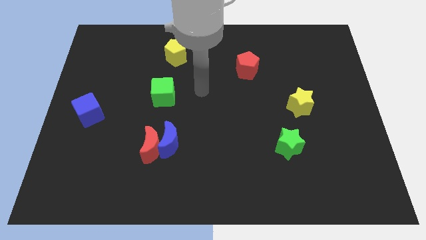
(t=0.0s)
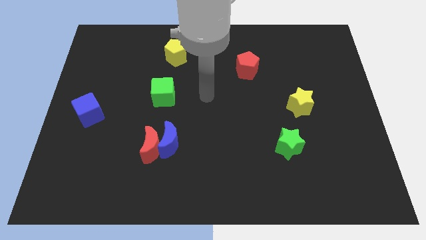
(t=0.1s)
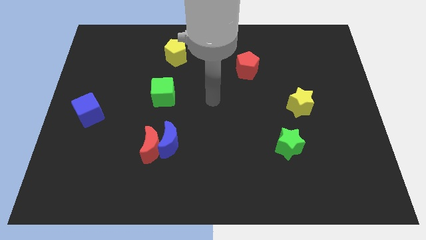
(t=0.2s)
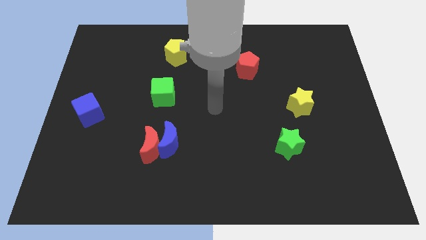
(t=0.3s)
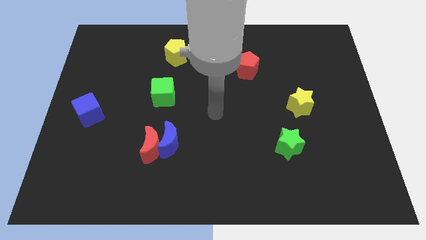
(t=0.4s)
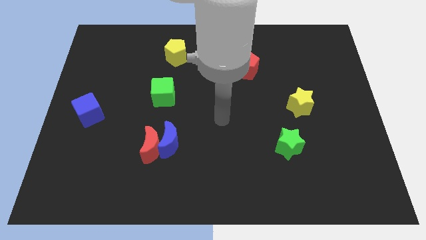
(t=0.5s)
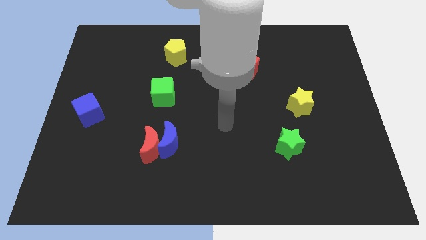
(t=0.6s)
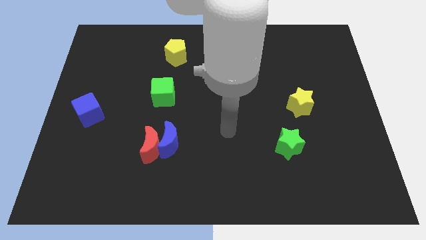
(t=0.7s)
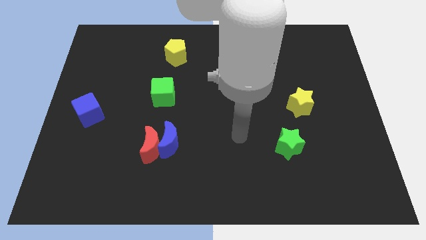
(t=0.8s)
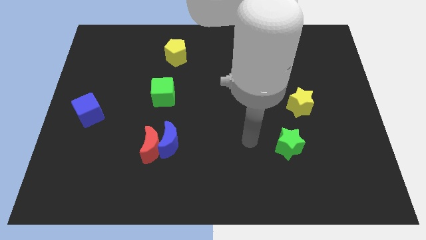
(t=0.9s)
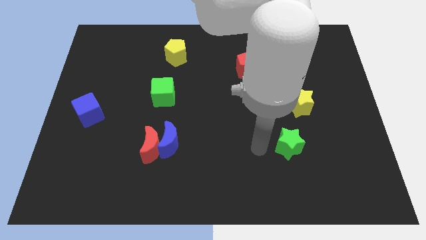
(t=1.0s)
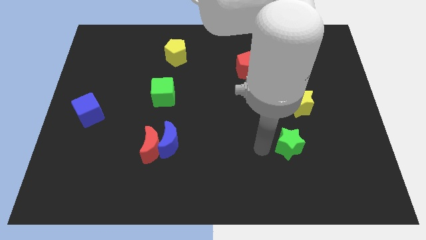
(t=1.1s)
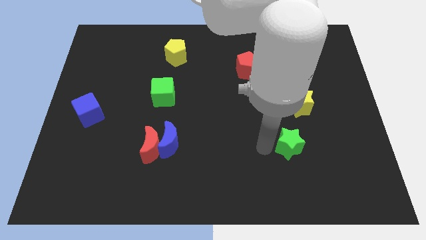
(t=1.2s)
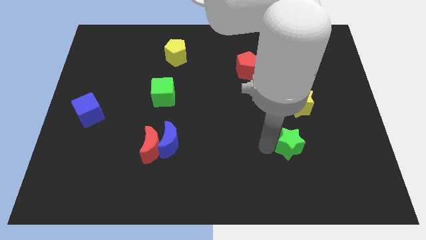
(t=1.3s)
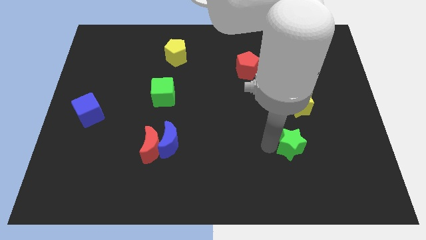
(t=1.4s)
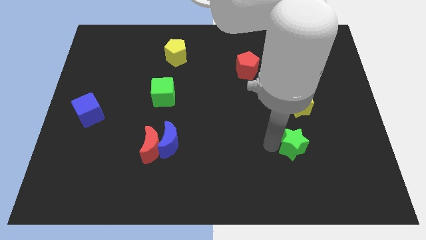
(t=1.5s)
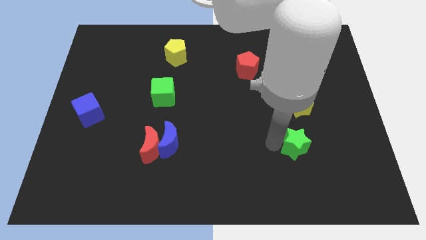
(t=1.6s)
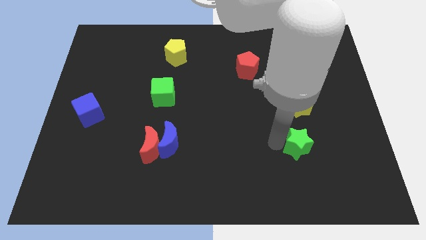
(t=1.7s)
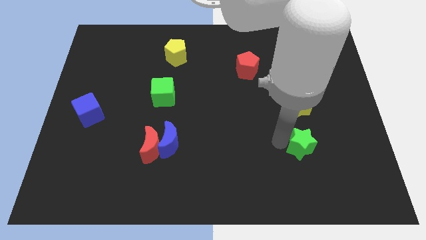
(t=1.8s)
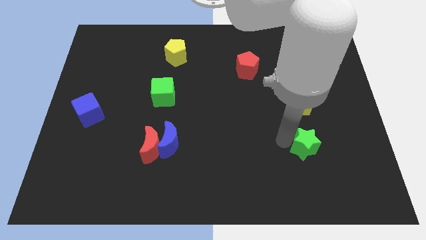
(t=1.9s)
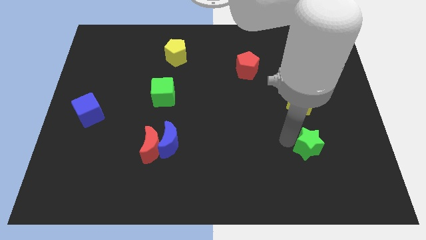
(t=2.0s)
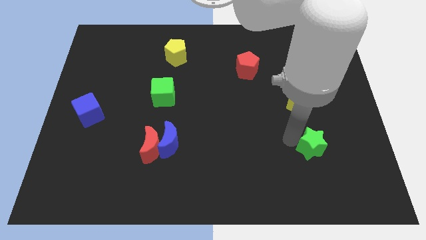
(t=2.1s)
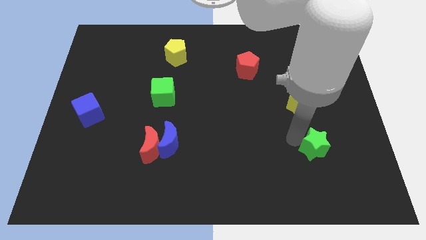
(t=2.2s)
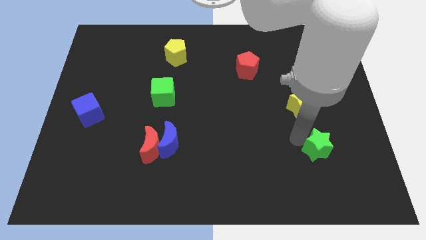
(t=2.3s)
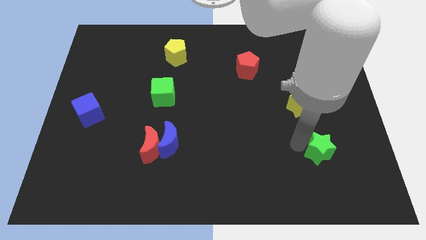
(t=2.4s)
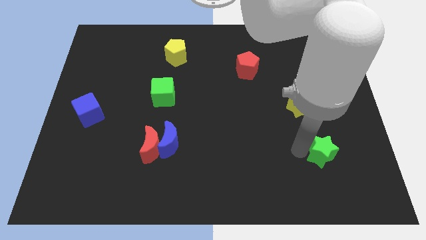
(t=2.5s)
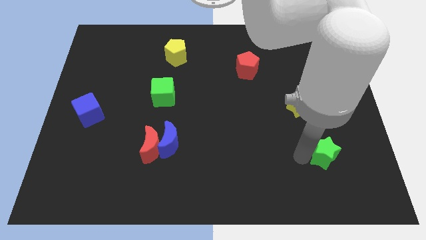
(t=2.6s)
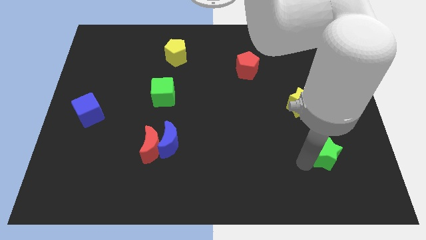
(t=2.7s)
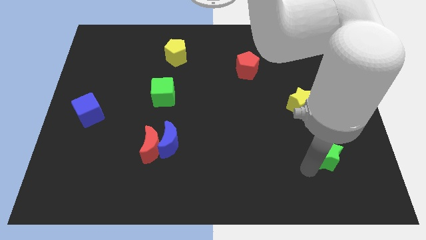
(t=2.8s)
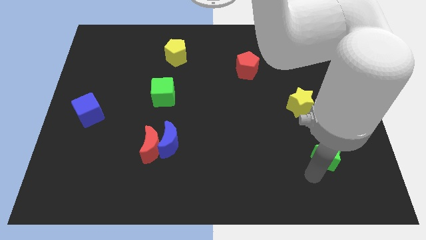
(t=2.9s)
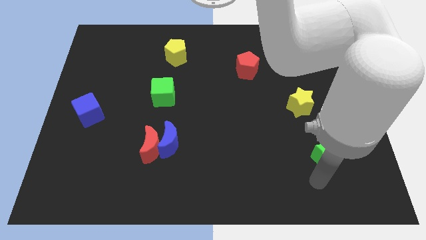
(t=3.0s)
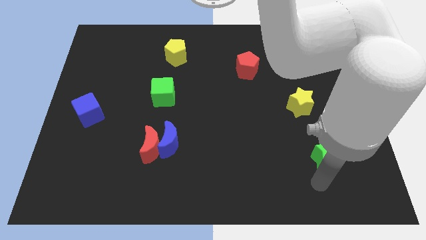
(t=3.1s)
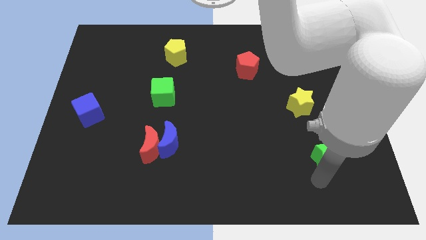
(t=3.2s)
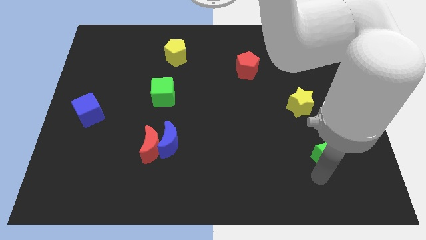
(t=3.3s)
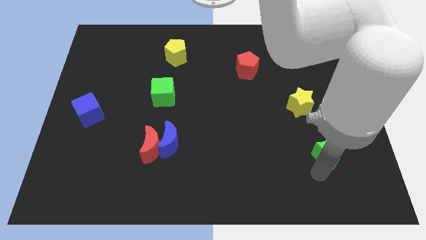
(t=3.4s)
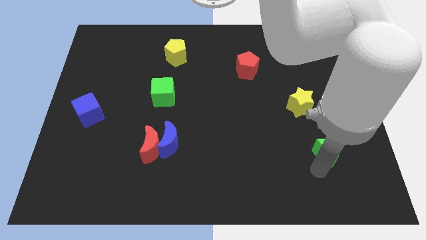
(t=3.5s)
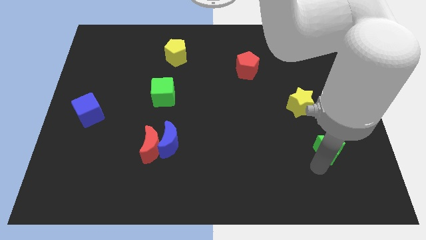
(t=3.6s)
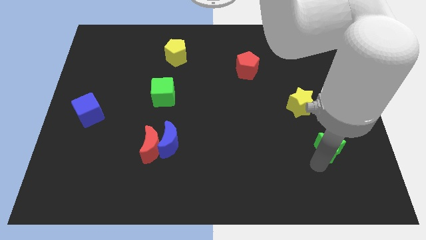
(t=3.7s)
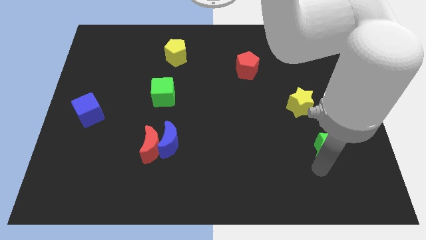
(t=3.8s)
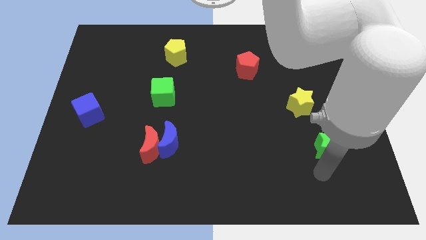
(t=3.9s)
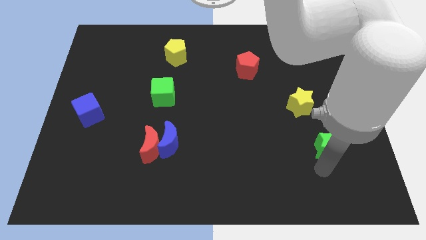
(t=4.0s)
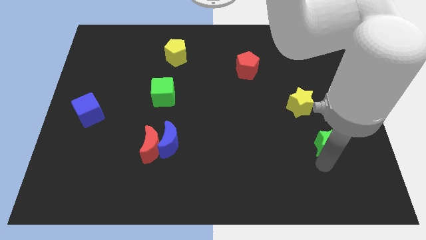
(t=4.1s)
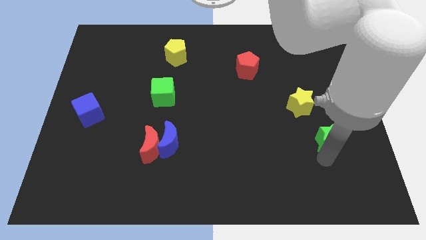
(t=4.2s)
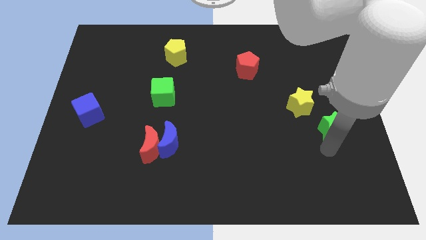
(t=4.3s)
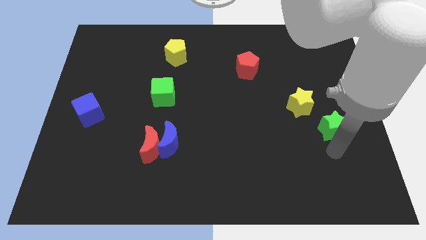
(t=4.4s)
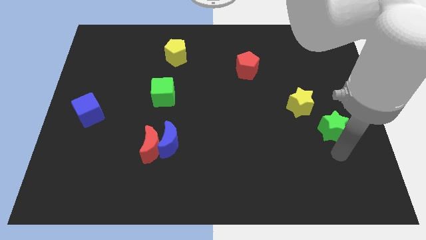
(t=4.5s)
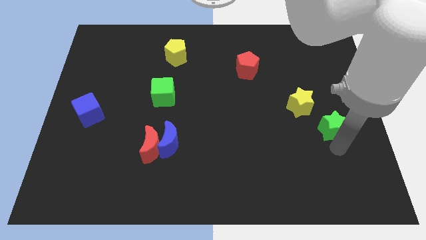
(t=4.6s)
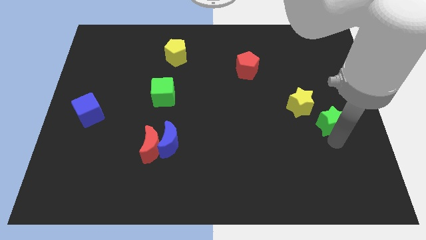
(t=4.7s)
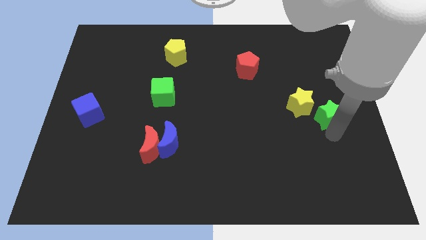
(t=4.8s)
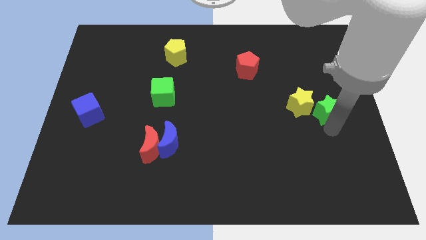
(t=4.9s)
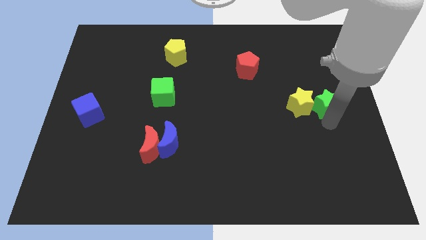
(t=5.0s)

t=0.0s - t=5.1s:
slide the green star to the top right side of the yellow star

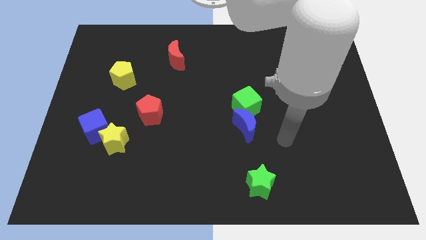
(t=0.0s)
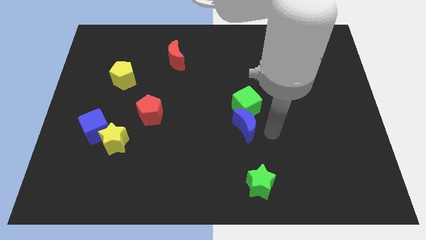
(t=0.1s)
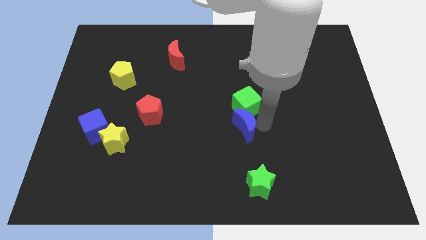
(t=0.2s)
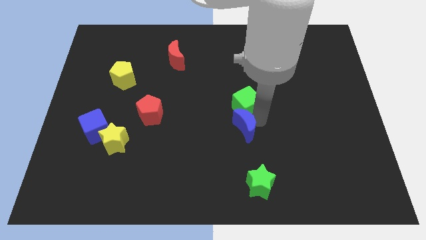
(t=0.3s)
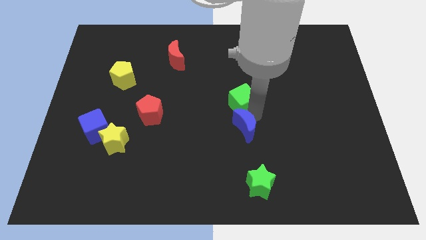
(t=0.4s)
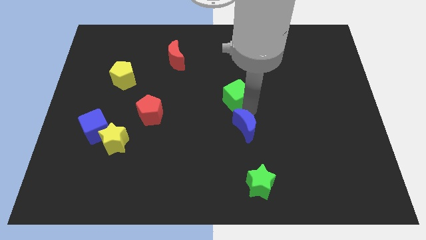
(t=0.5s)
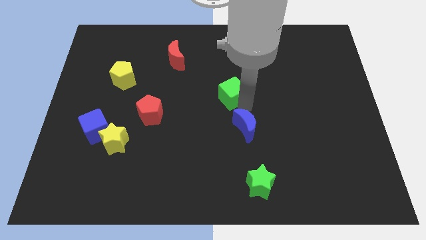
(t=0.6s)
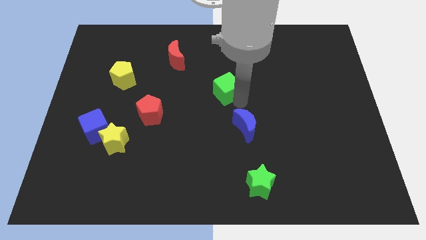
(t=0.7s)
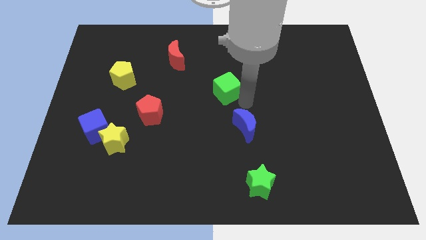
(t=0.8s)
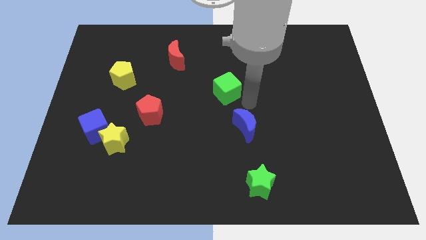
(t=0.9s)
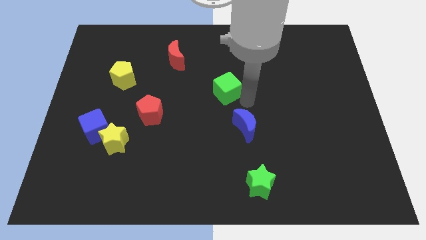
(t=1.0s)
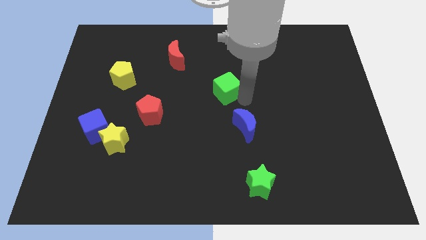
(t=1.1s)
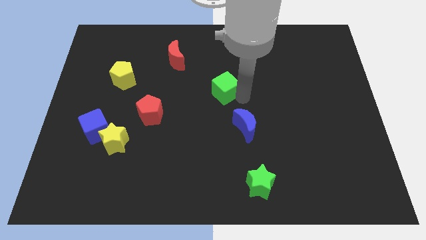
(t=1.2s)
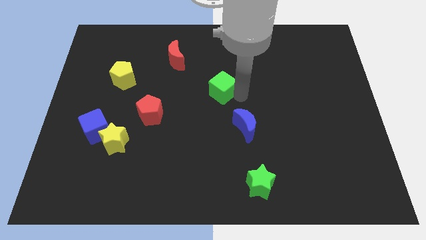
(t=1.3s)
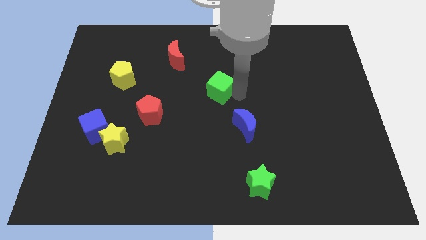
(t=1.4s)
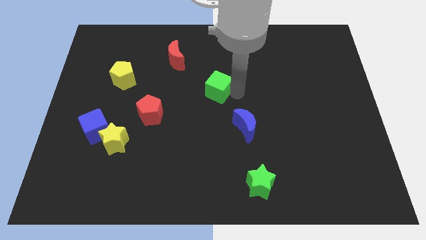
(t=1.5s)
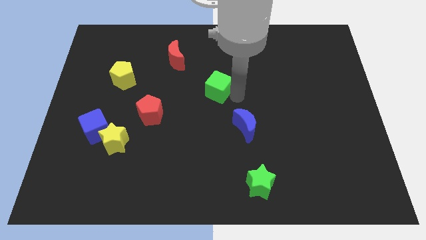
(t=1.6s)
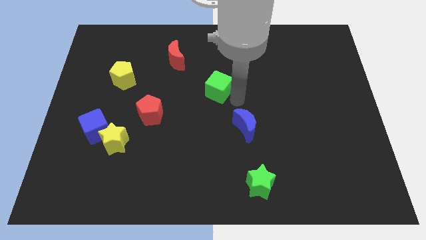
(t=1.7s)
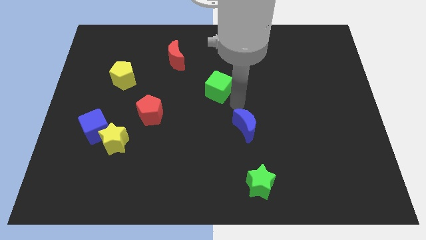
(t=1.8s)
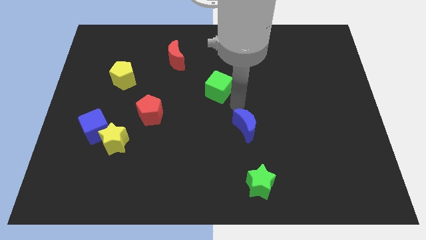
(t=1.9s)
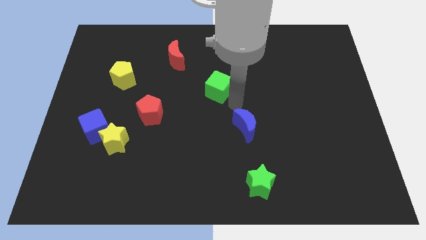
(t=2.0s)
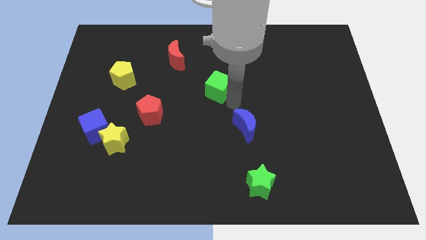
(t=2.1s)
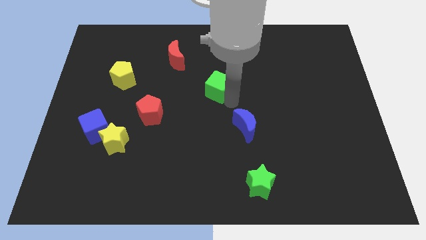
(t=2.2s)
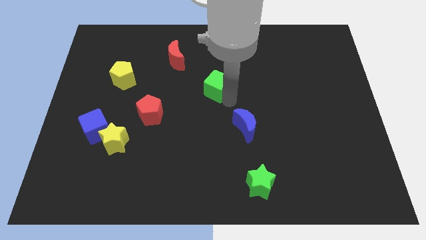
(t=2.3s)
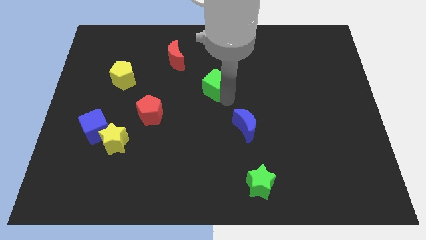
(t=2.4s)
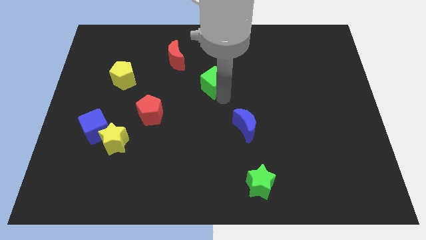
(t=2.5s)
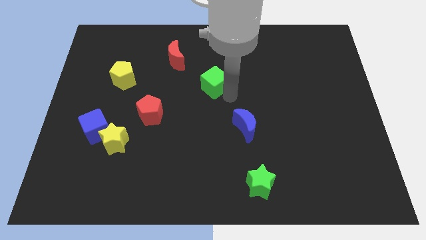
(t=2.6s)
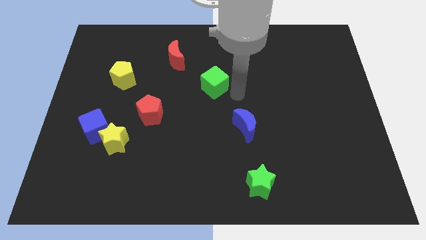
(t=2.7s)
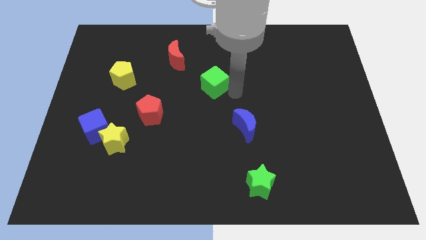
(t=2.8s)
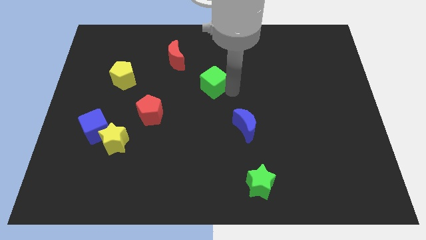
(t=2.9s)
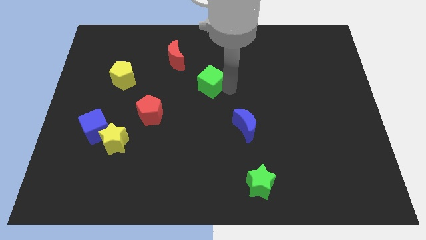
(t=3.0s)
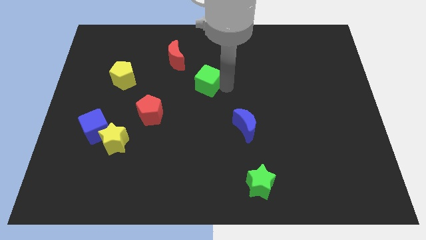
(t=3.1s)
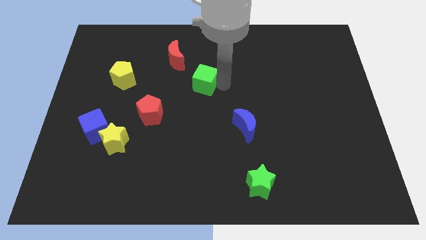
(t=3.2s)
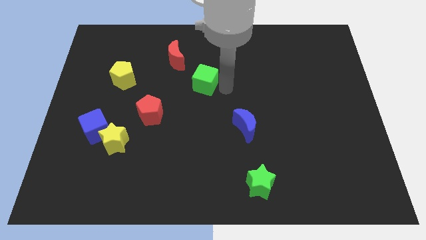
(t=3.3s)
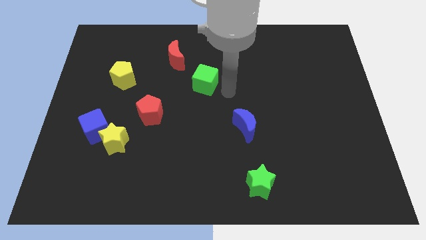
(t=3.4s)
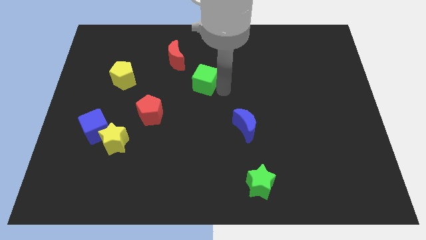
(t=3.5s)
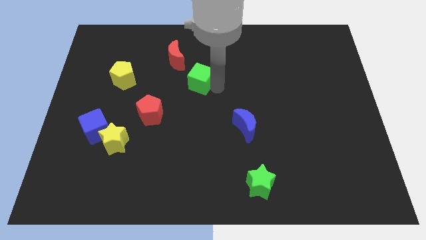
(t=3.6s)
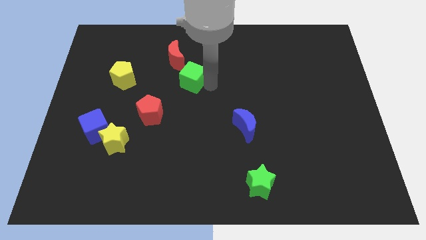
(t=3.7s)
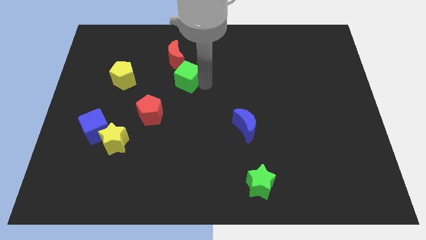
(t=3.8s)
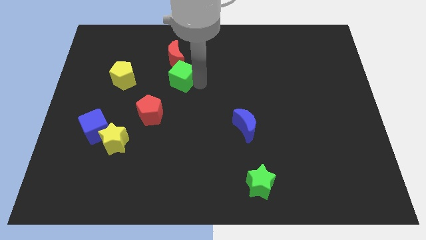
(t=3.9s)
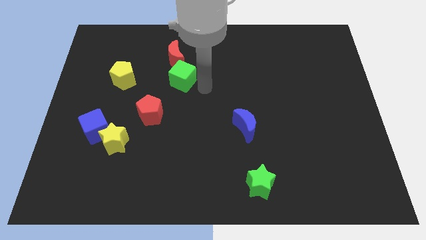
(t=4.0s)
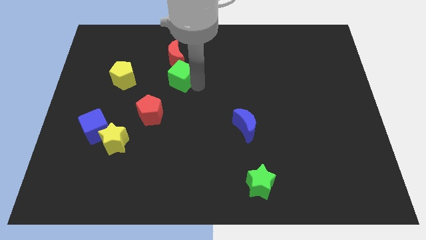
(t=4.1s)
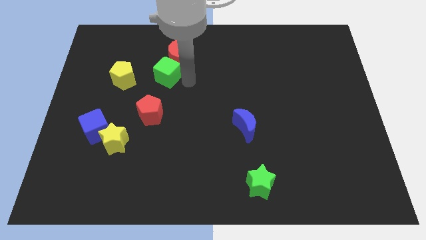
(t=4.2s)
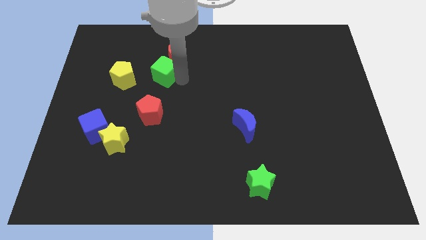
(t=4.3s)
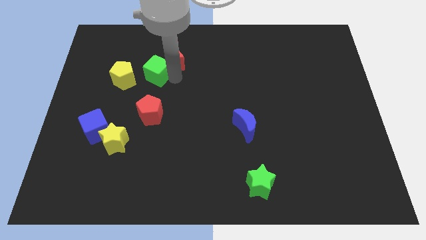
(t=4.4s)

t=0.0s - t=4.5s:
move the green cube diagonally up and to the right of the yellow pentagon
